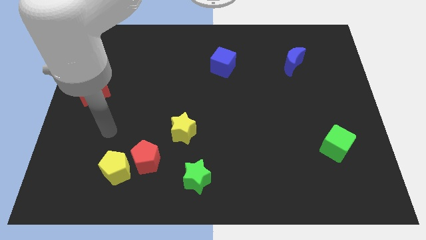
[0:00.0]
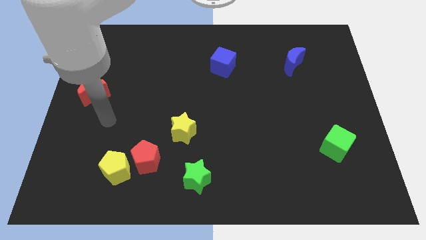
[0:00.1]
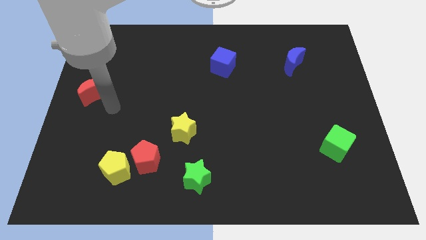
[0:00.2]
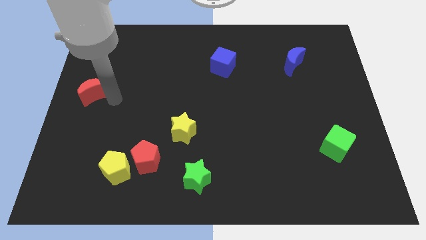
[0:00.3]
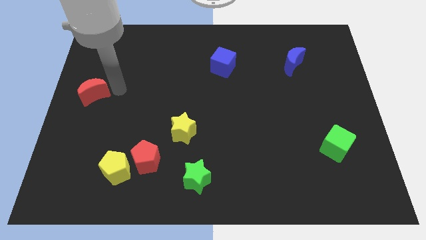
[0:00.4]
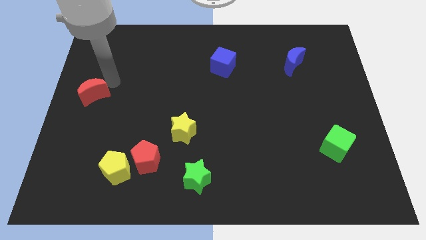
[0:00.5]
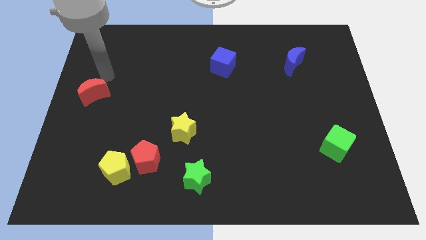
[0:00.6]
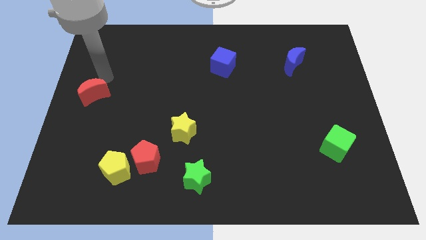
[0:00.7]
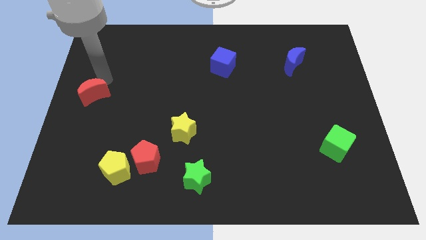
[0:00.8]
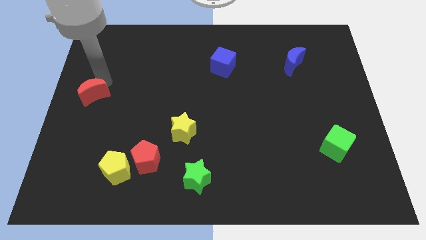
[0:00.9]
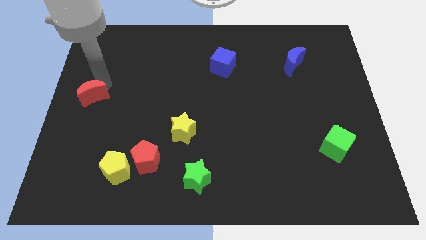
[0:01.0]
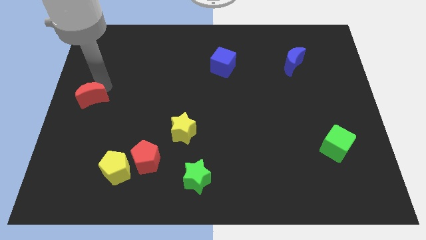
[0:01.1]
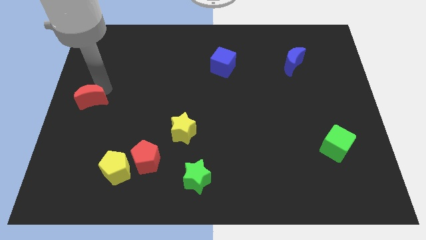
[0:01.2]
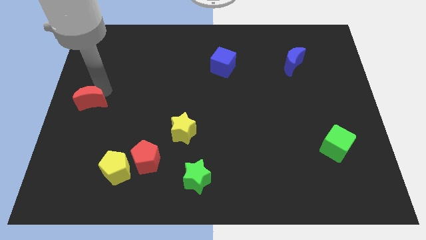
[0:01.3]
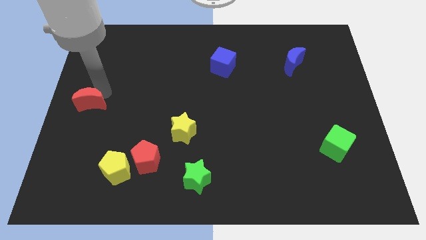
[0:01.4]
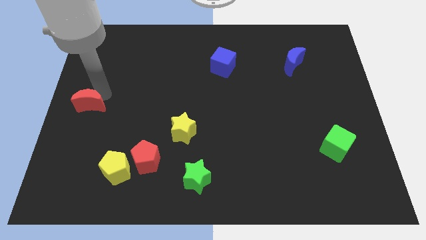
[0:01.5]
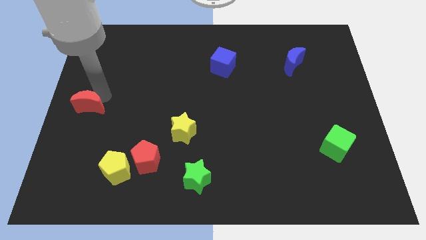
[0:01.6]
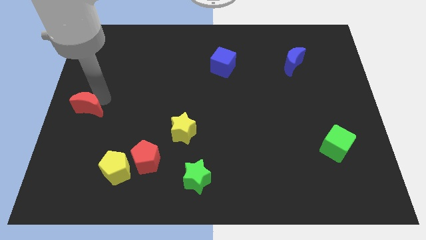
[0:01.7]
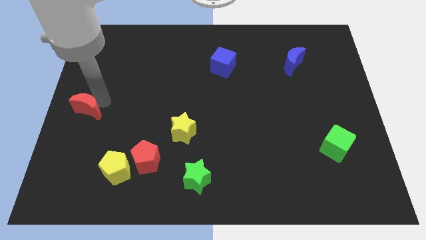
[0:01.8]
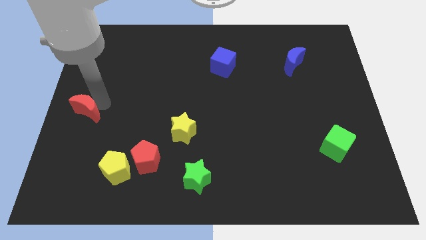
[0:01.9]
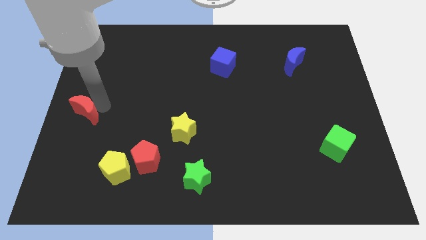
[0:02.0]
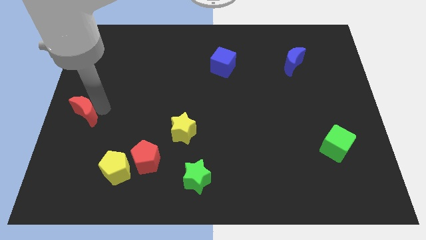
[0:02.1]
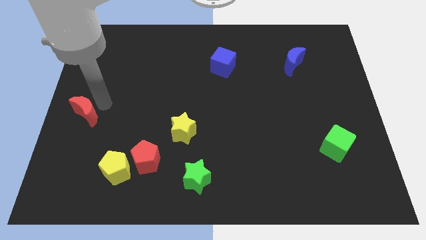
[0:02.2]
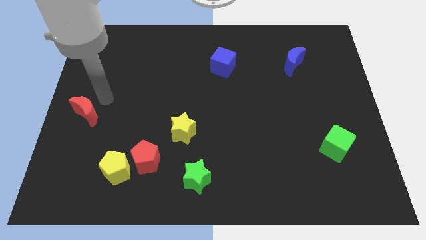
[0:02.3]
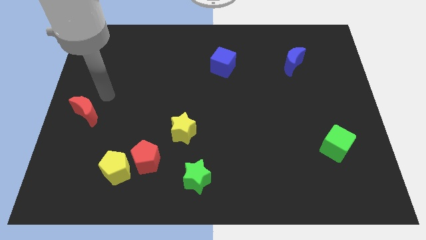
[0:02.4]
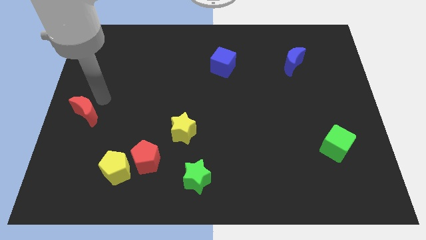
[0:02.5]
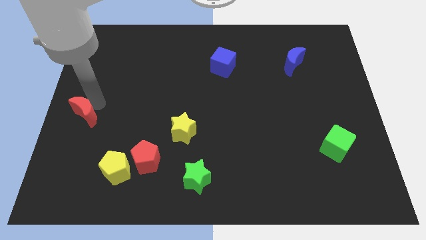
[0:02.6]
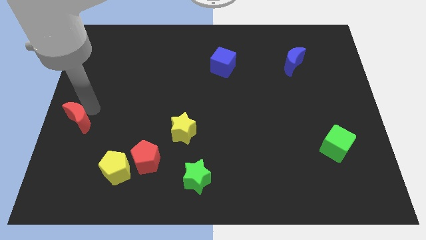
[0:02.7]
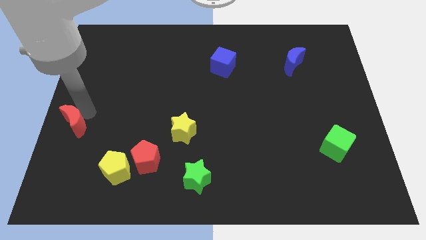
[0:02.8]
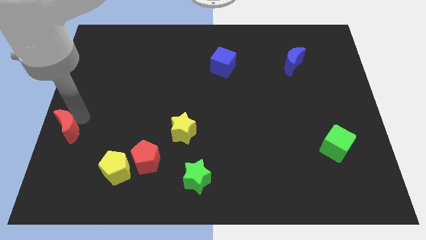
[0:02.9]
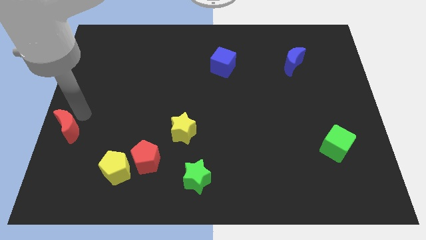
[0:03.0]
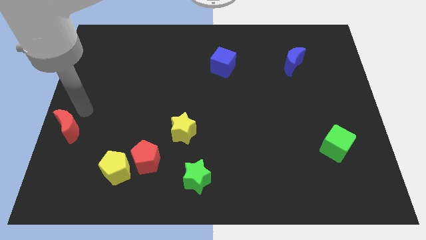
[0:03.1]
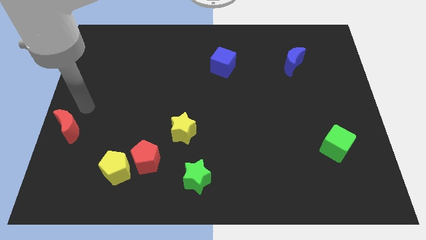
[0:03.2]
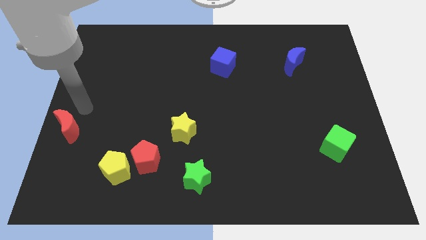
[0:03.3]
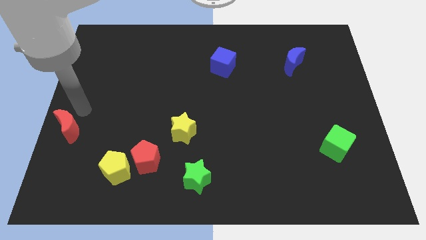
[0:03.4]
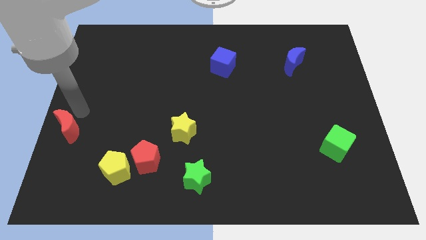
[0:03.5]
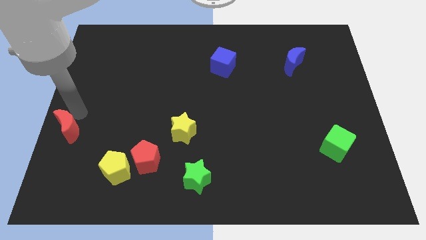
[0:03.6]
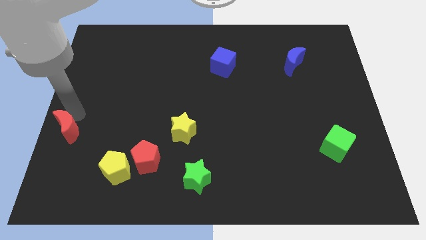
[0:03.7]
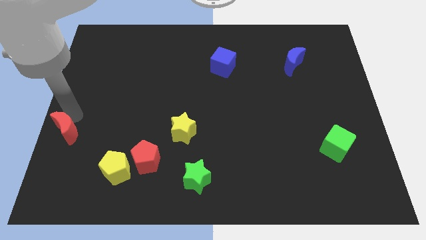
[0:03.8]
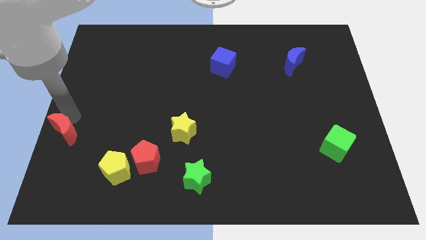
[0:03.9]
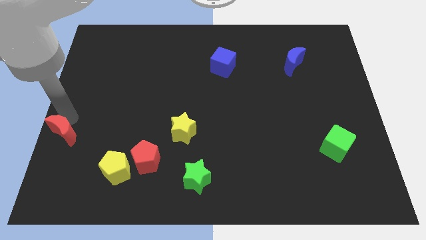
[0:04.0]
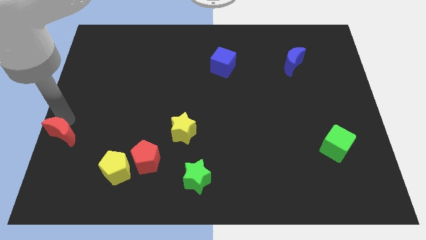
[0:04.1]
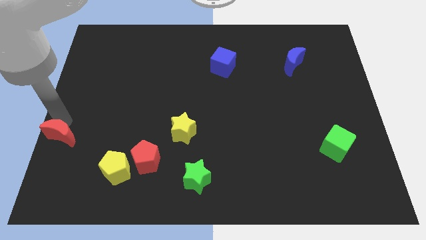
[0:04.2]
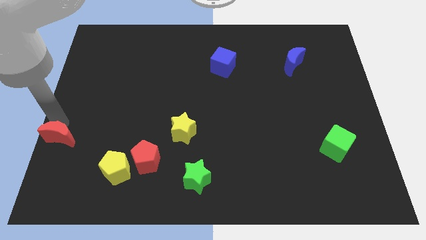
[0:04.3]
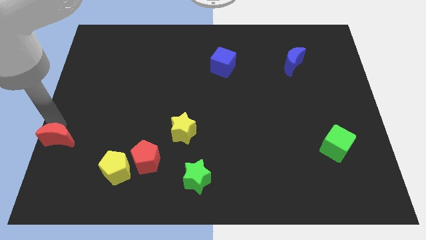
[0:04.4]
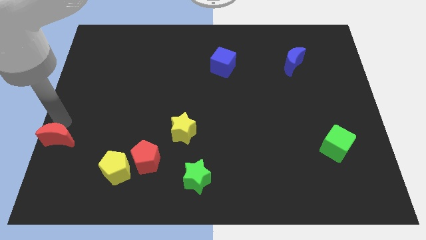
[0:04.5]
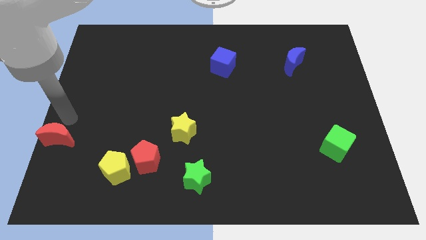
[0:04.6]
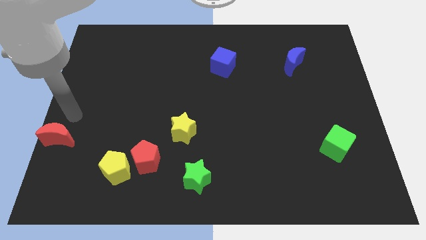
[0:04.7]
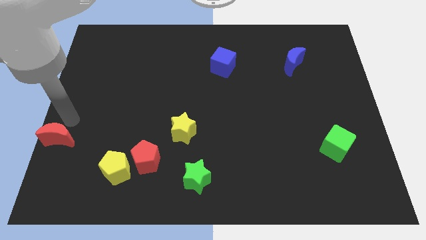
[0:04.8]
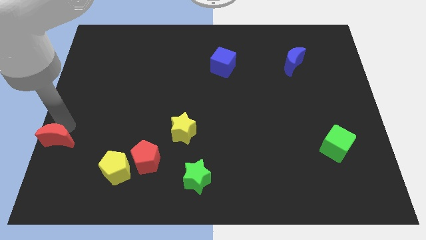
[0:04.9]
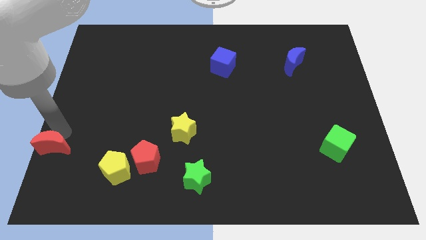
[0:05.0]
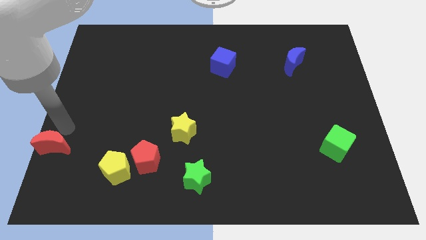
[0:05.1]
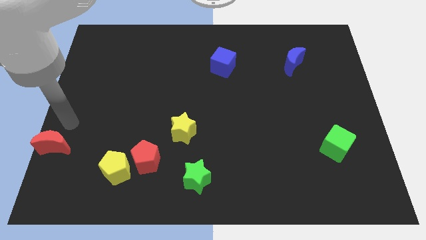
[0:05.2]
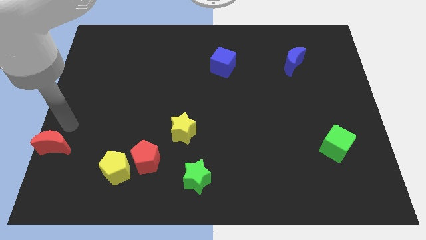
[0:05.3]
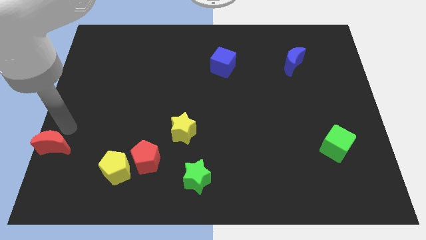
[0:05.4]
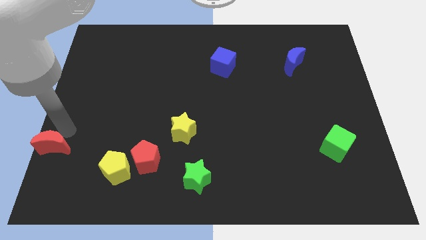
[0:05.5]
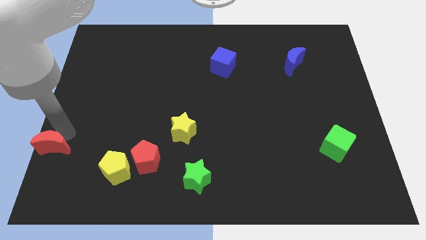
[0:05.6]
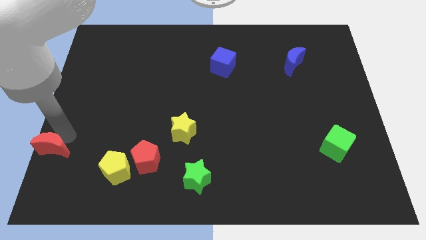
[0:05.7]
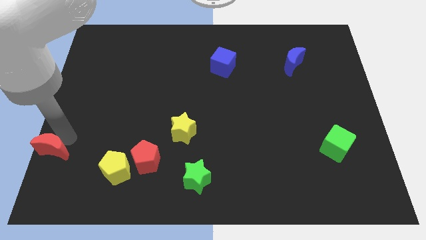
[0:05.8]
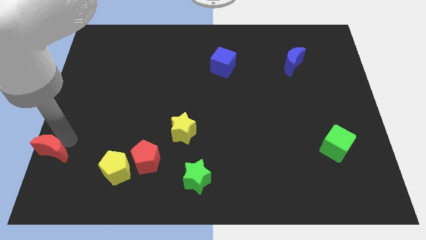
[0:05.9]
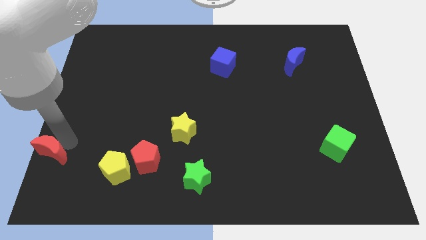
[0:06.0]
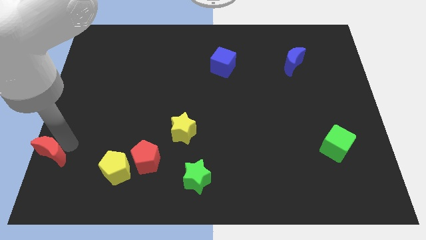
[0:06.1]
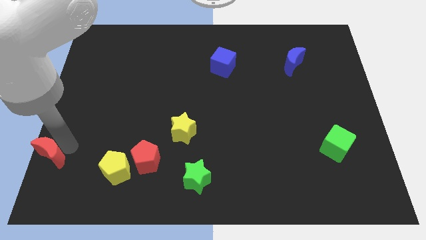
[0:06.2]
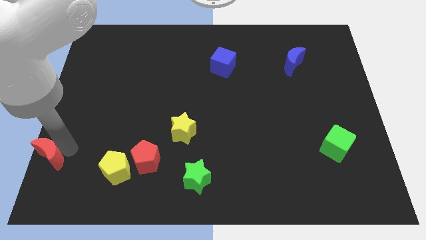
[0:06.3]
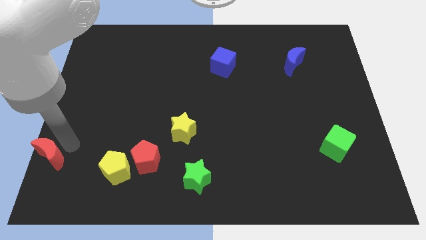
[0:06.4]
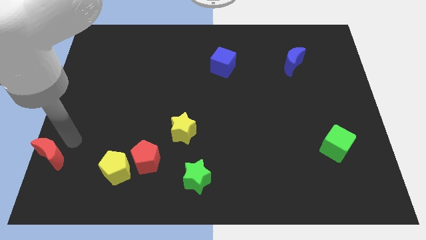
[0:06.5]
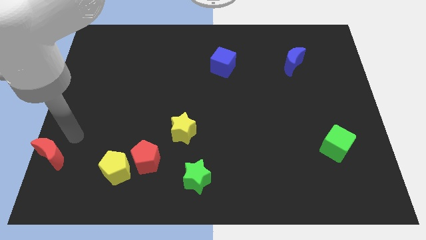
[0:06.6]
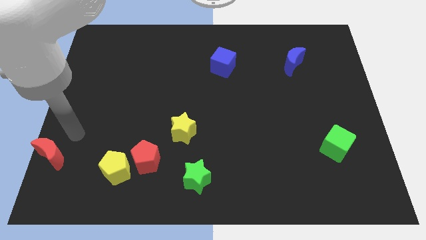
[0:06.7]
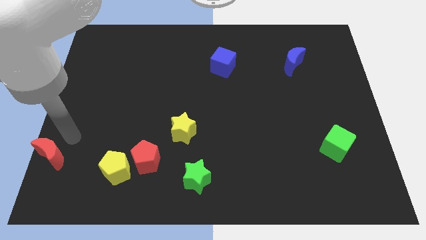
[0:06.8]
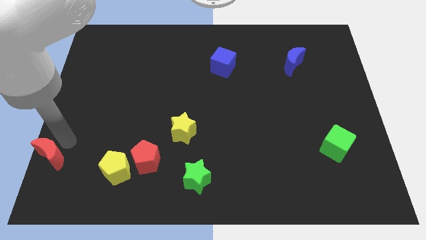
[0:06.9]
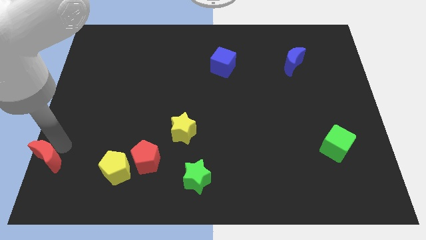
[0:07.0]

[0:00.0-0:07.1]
slide the red moon to the bottom left
